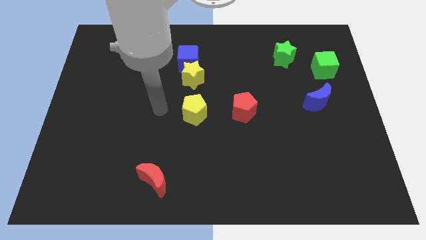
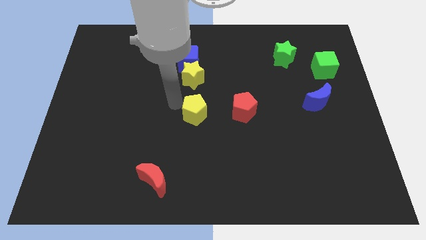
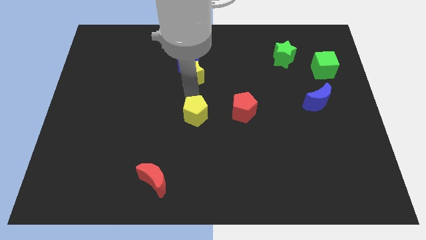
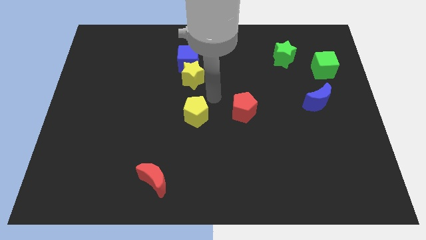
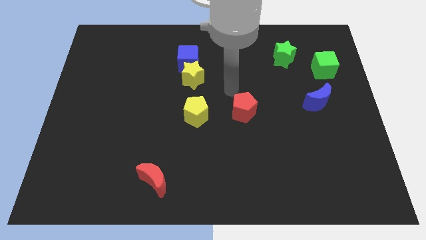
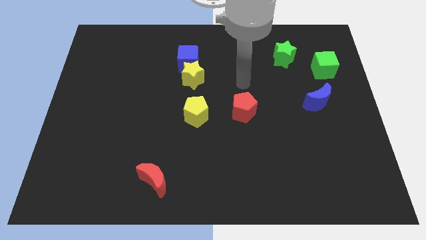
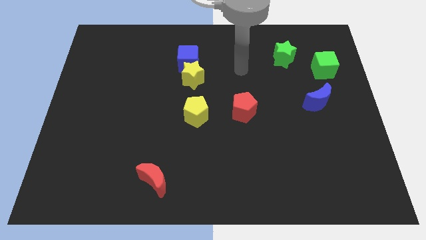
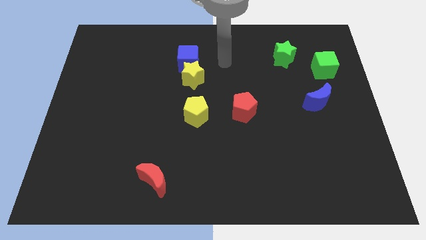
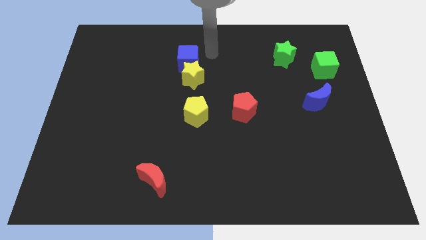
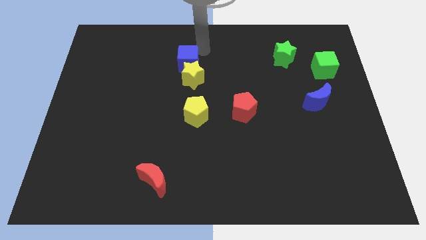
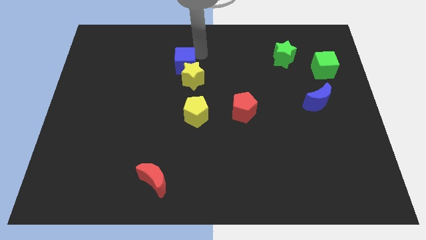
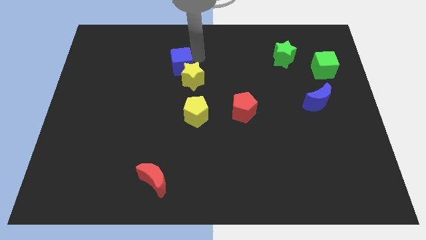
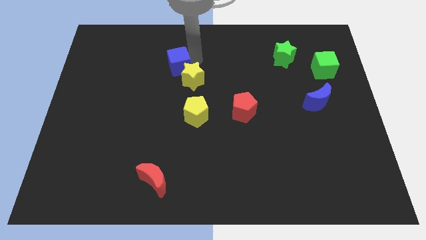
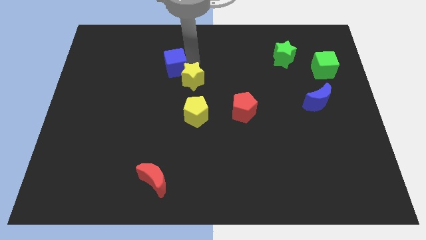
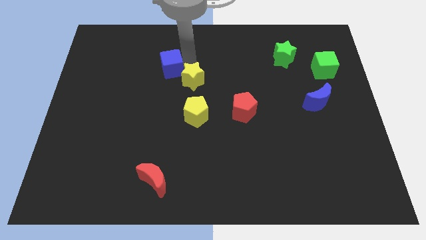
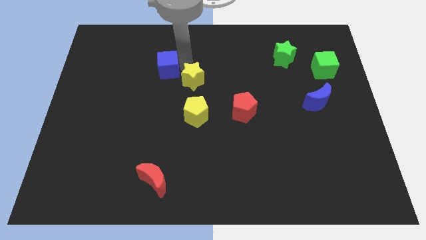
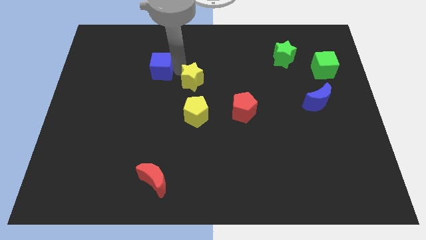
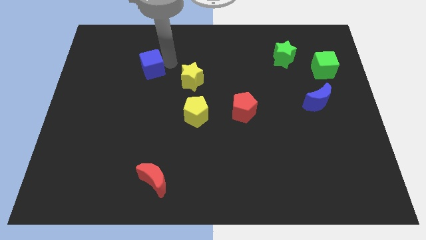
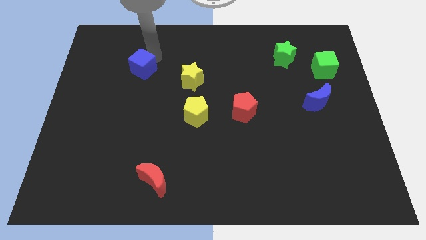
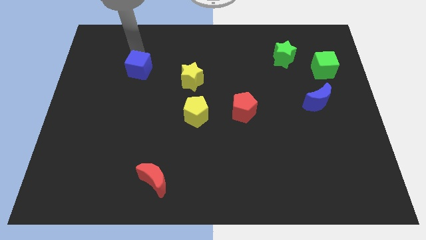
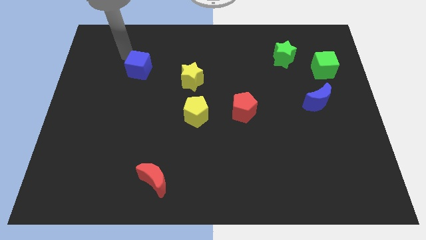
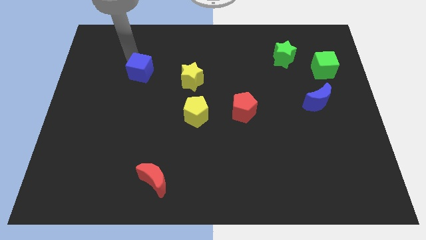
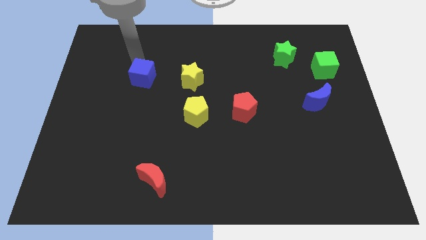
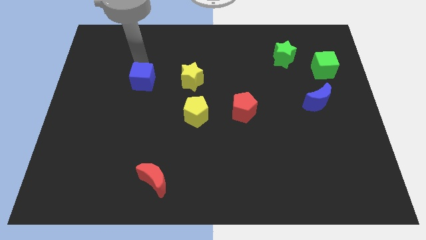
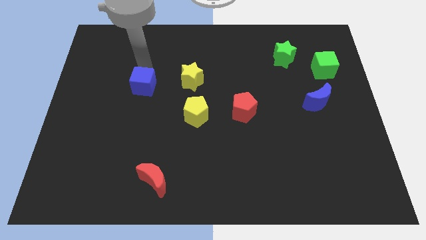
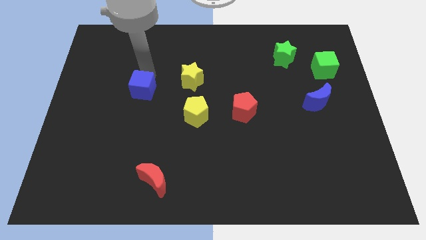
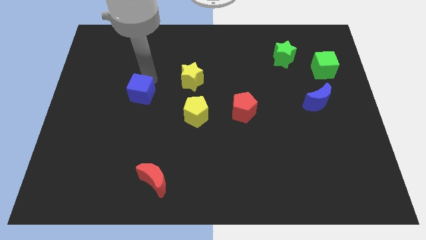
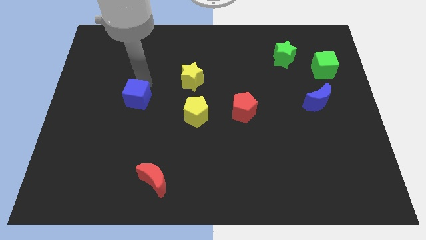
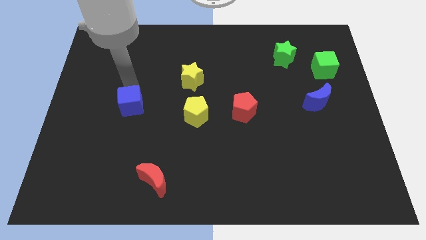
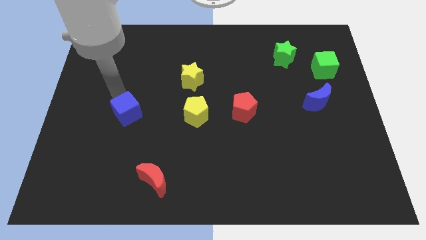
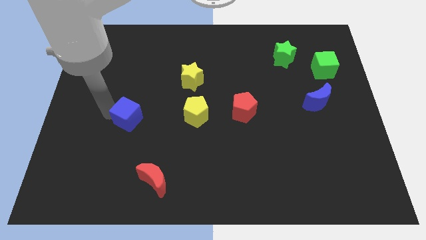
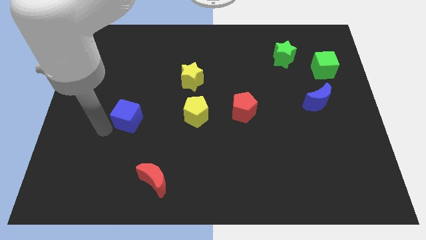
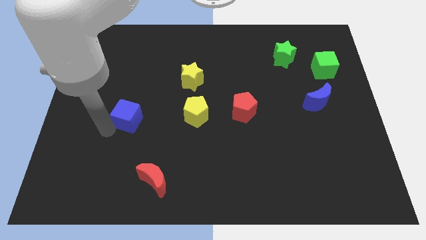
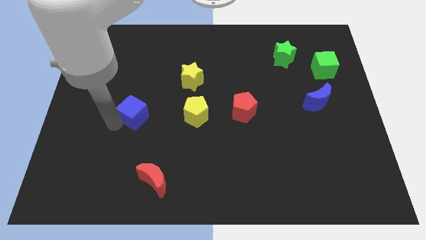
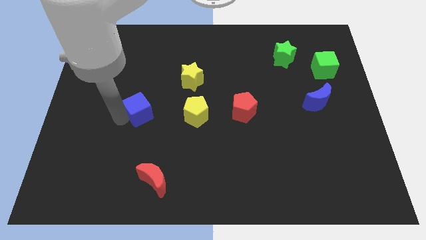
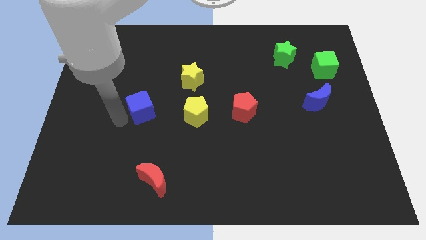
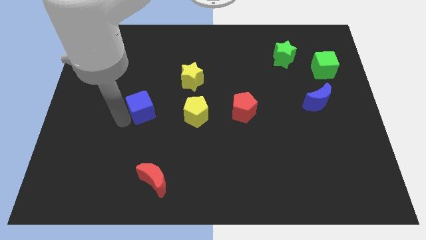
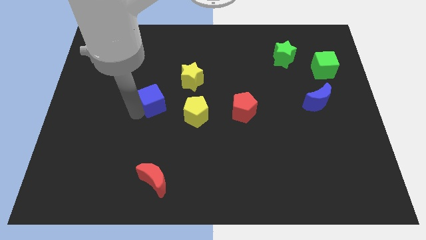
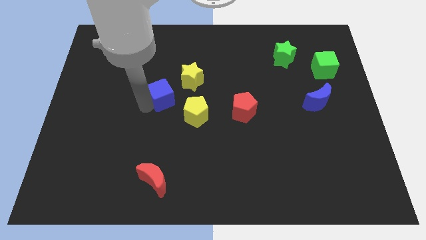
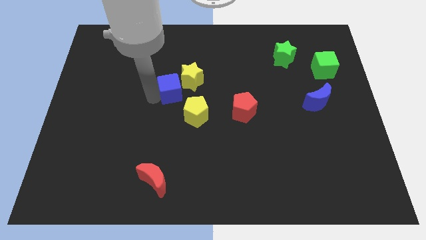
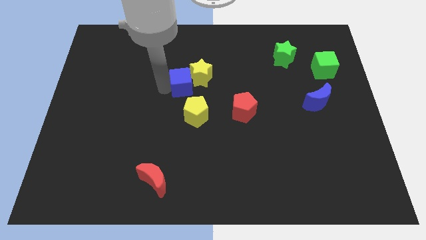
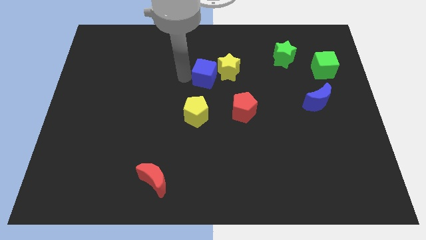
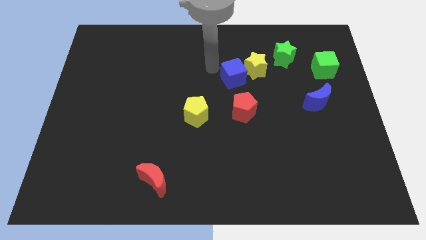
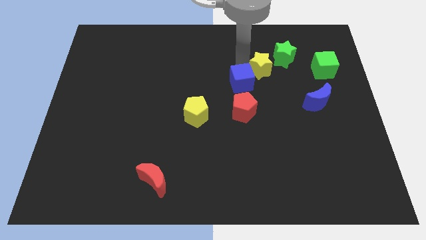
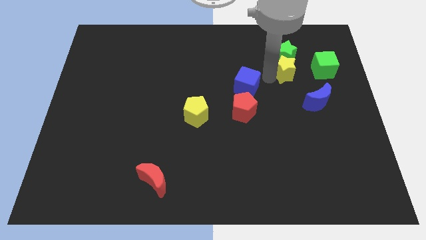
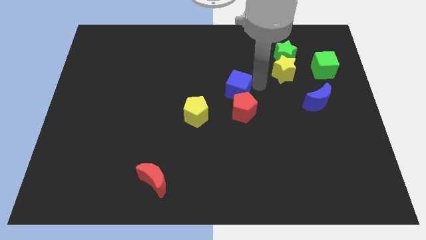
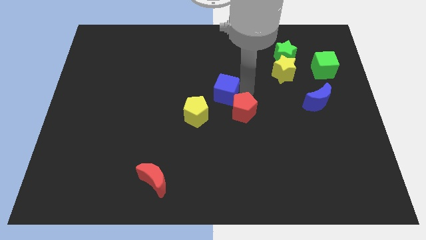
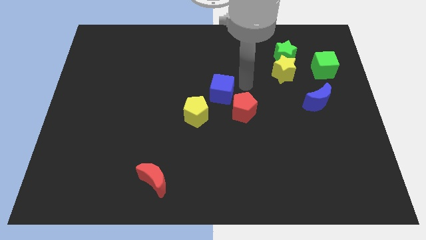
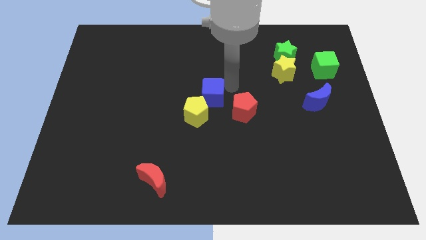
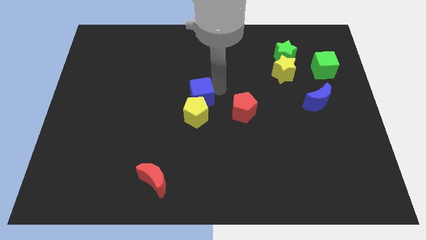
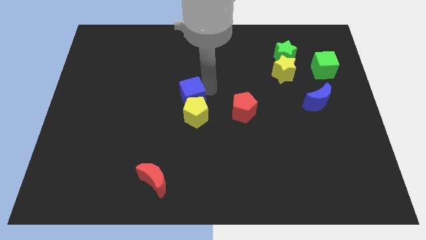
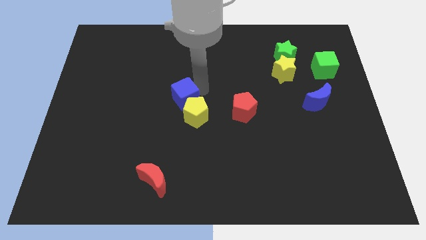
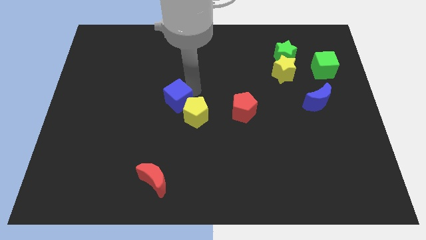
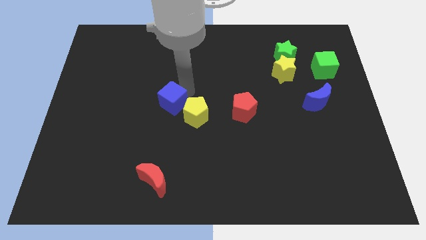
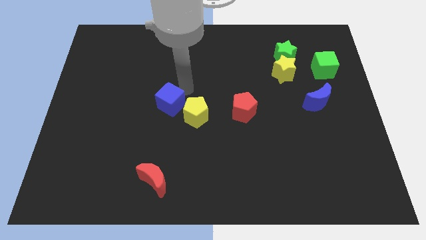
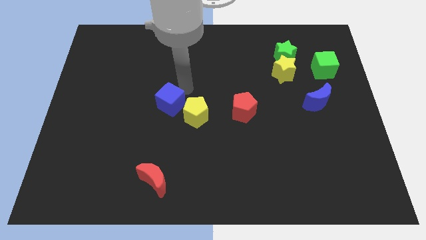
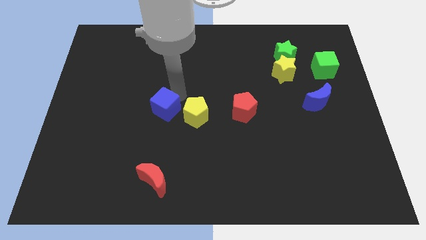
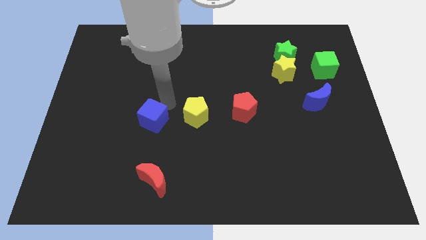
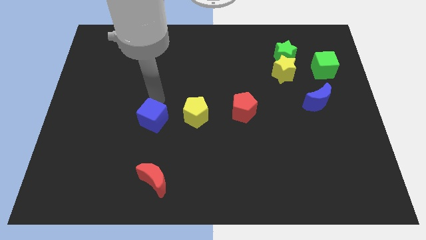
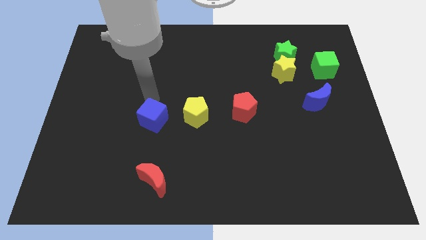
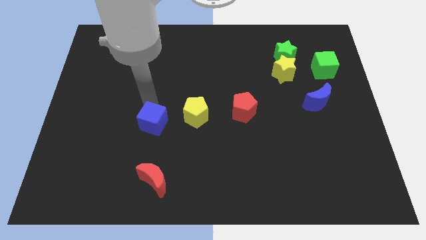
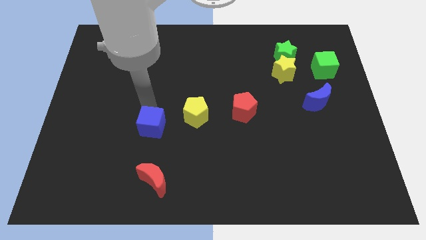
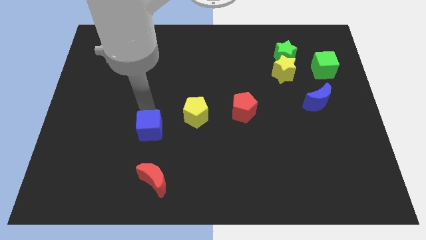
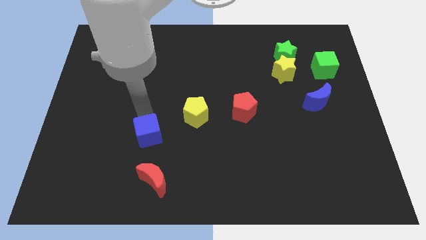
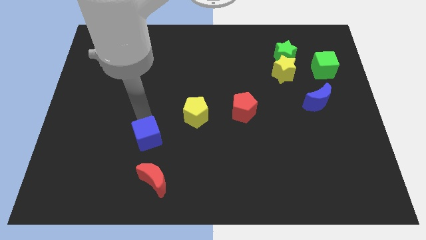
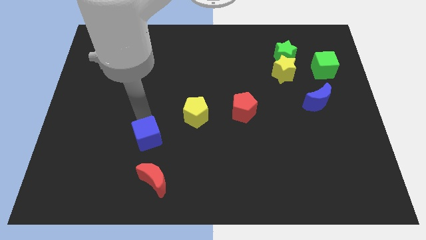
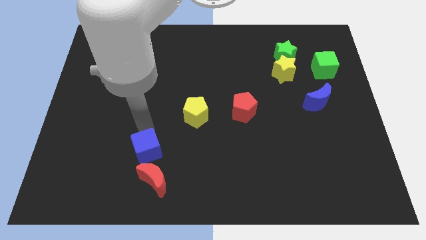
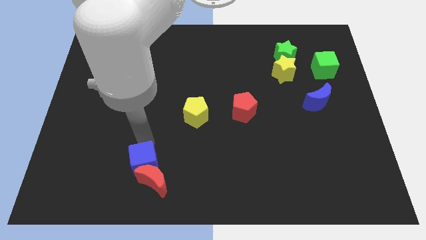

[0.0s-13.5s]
slide the blue cube towards the red moon
